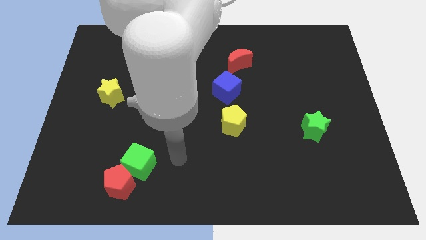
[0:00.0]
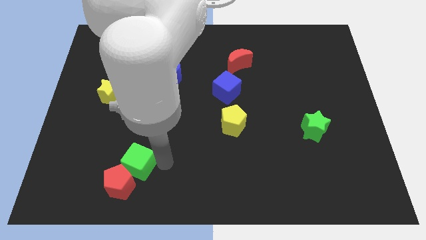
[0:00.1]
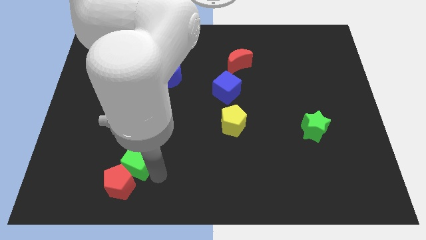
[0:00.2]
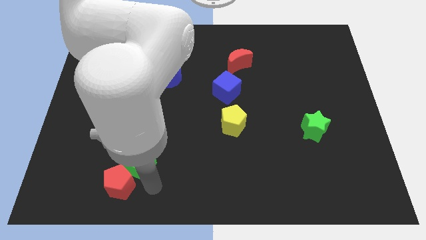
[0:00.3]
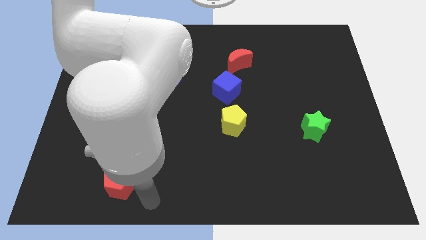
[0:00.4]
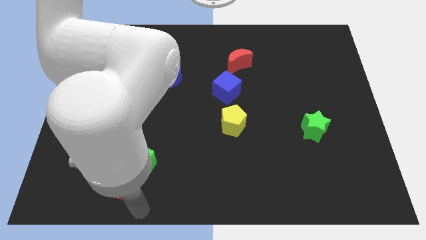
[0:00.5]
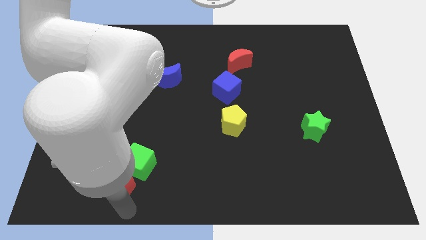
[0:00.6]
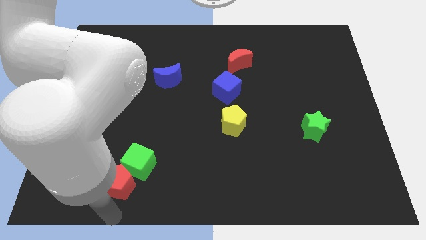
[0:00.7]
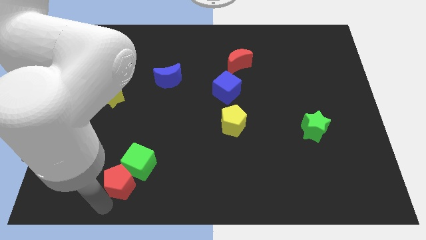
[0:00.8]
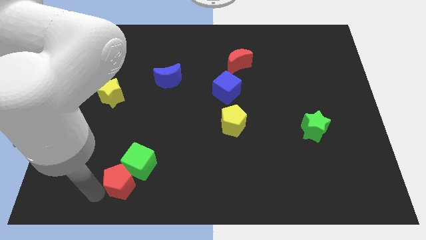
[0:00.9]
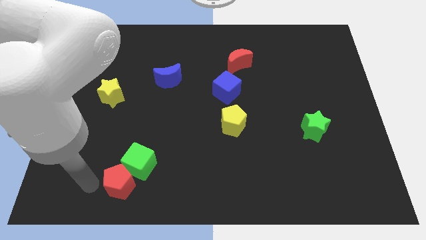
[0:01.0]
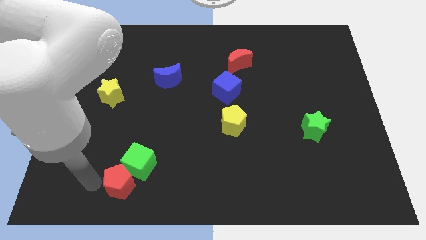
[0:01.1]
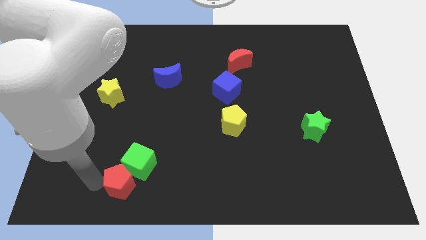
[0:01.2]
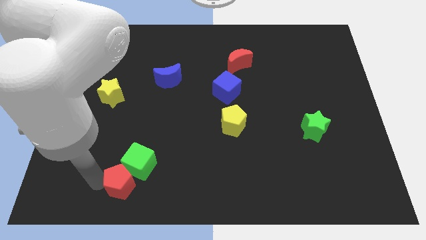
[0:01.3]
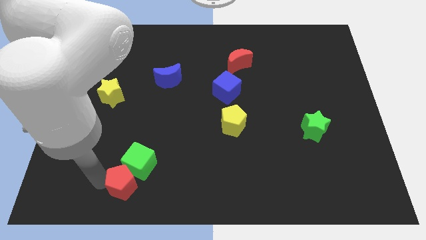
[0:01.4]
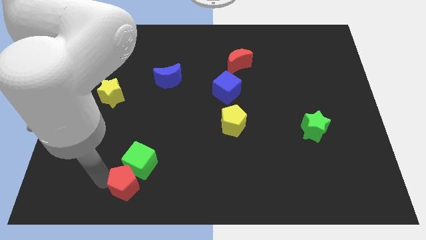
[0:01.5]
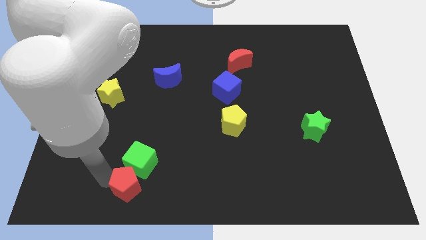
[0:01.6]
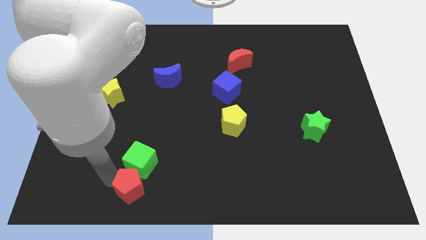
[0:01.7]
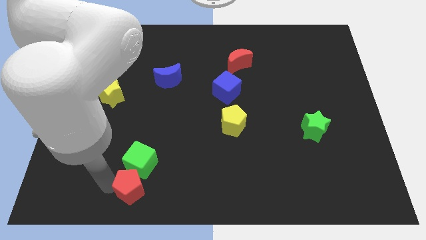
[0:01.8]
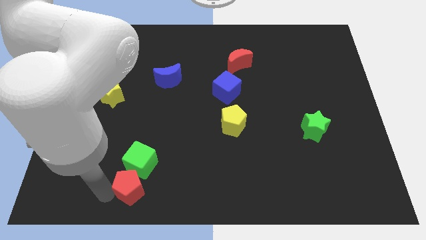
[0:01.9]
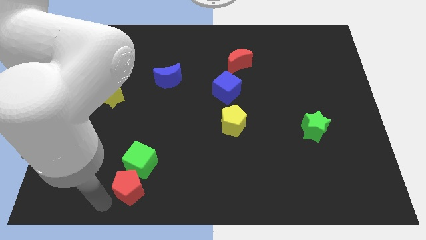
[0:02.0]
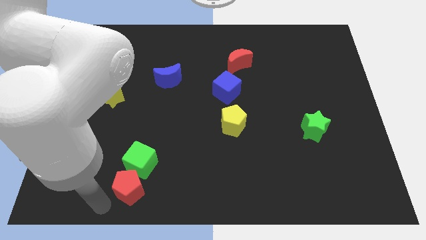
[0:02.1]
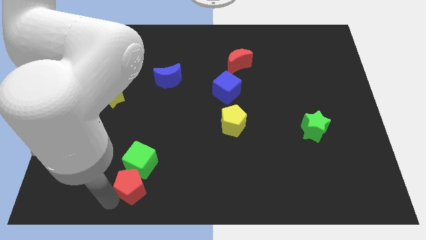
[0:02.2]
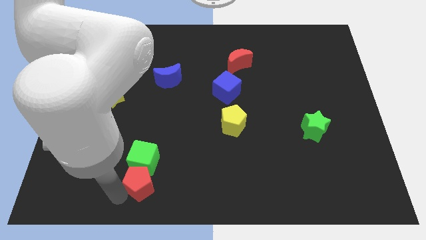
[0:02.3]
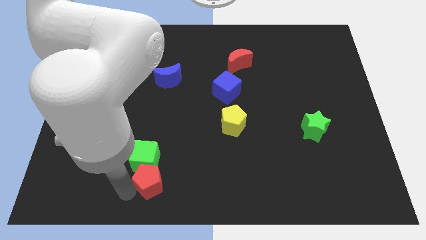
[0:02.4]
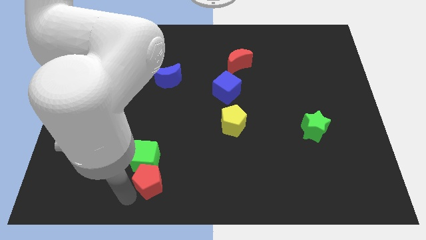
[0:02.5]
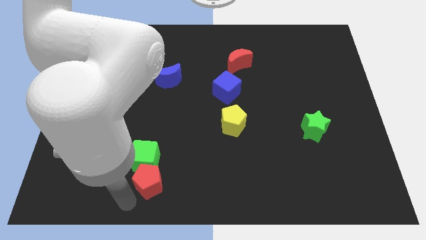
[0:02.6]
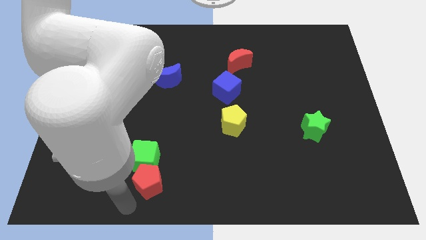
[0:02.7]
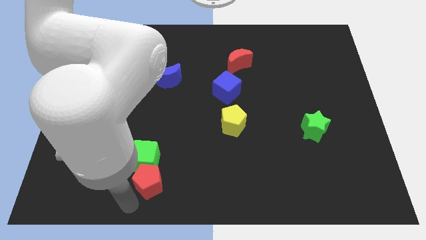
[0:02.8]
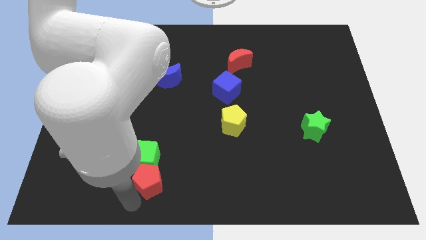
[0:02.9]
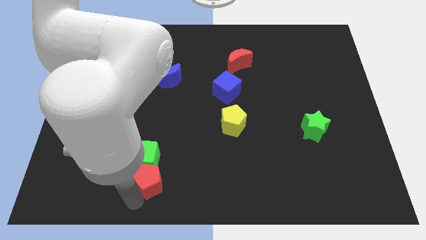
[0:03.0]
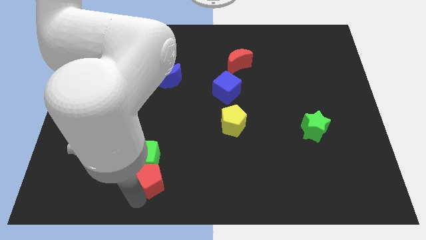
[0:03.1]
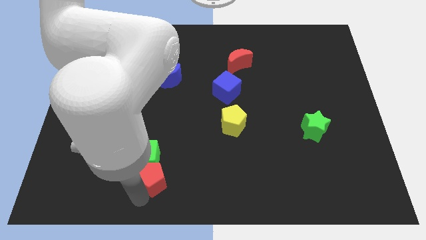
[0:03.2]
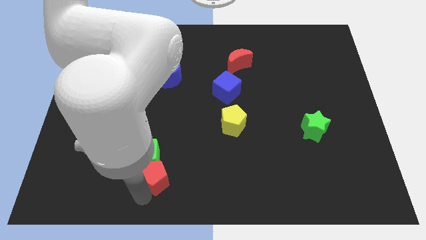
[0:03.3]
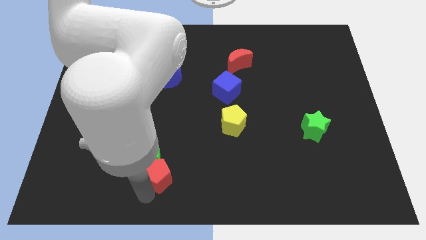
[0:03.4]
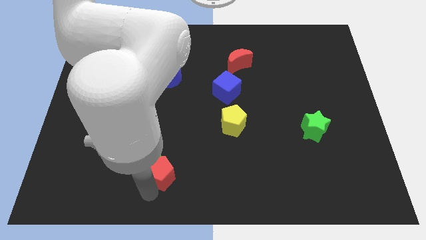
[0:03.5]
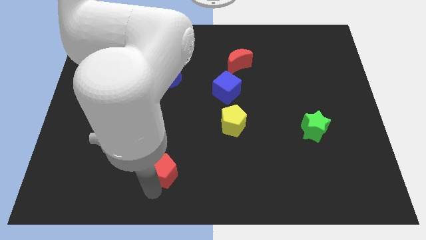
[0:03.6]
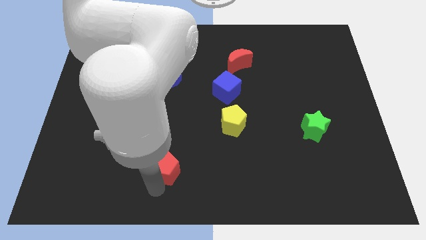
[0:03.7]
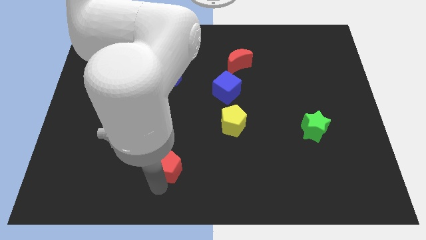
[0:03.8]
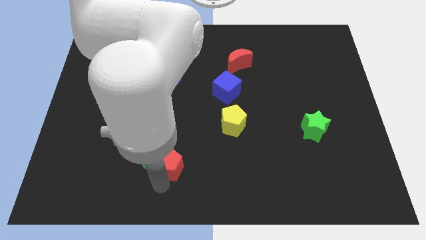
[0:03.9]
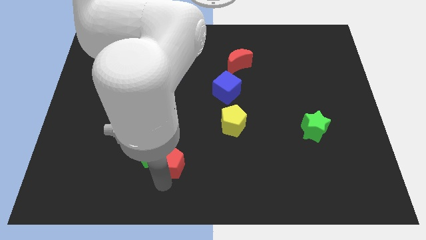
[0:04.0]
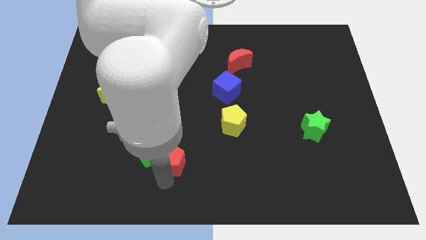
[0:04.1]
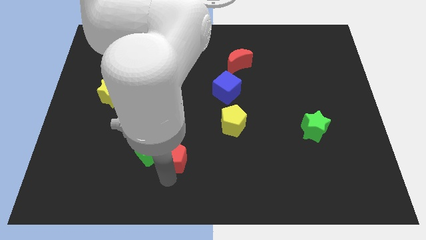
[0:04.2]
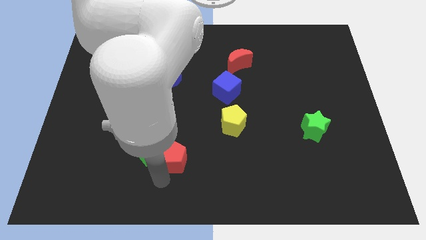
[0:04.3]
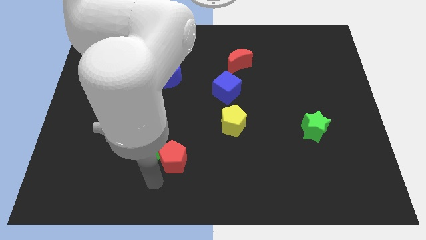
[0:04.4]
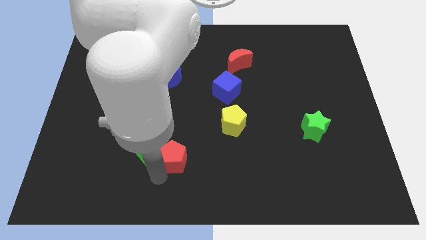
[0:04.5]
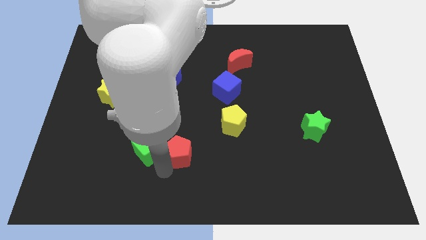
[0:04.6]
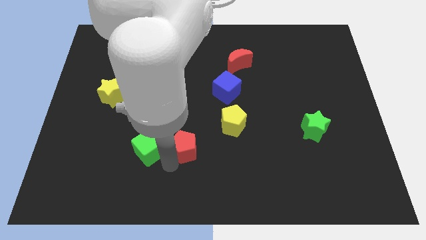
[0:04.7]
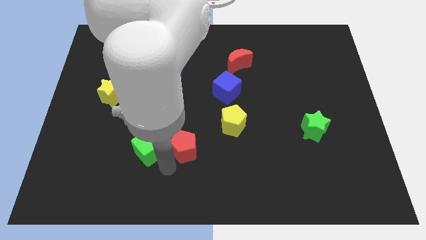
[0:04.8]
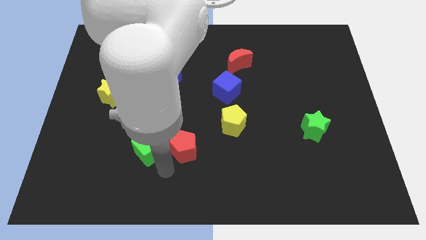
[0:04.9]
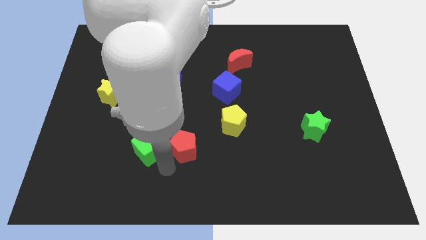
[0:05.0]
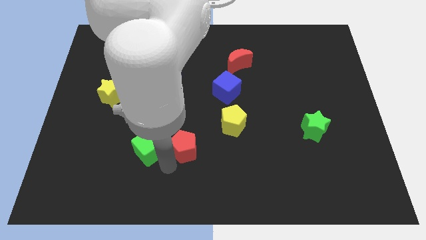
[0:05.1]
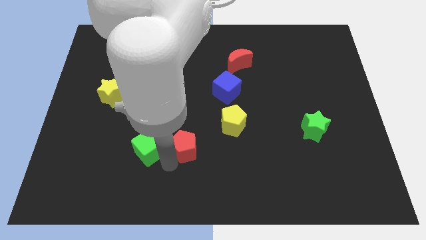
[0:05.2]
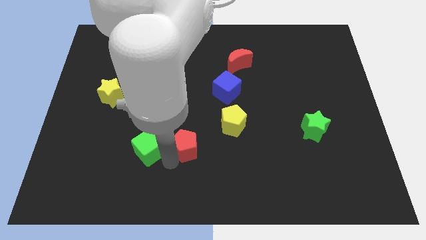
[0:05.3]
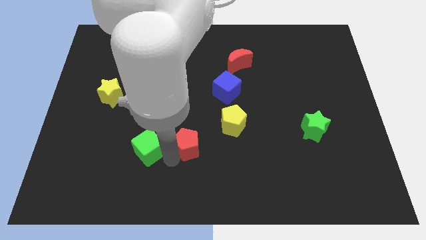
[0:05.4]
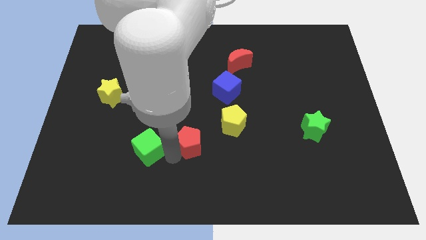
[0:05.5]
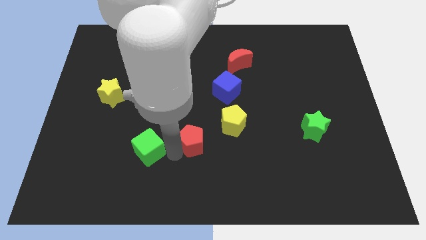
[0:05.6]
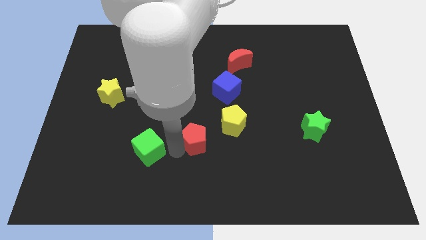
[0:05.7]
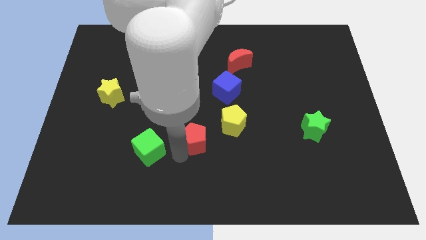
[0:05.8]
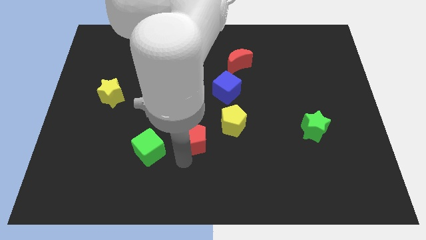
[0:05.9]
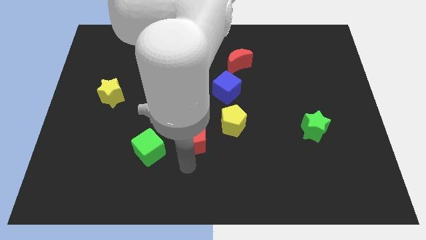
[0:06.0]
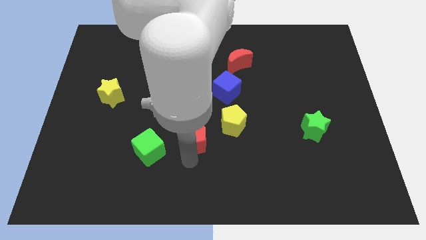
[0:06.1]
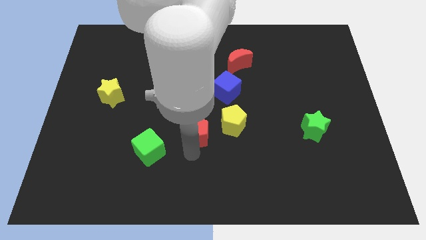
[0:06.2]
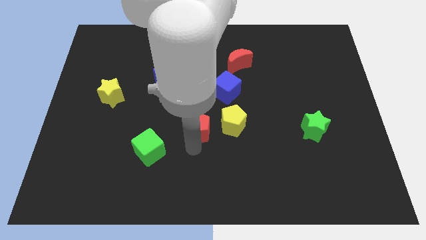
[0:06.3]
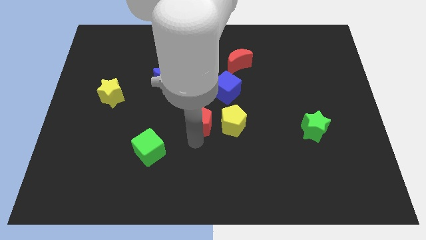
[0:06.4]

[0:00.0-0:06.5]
push the red pentagon to the bottom left side of the blue cube

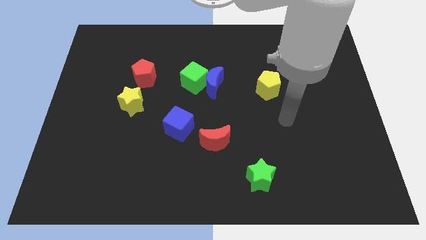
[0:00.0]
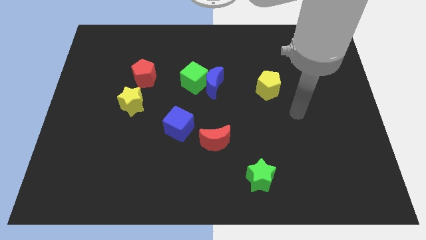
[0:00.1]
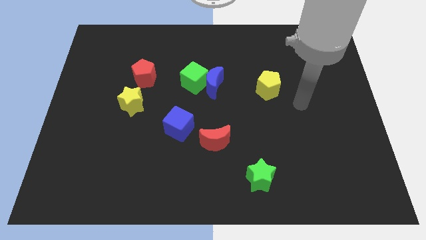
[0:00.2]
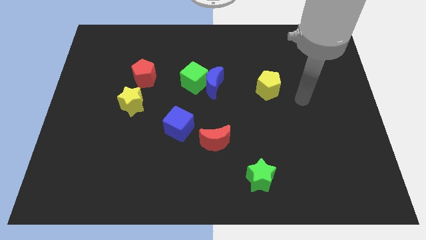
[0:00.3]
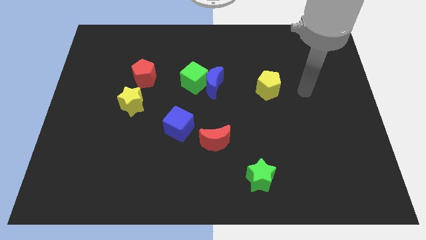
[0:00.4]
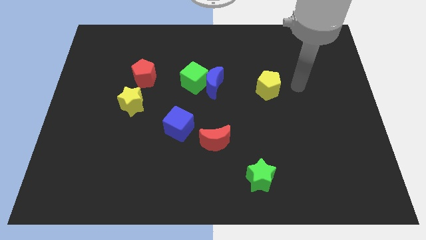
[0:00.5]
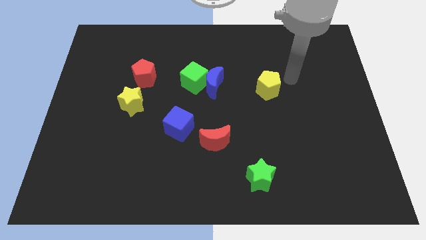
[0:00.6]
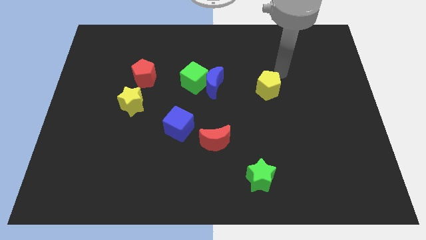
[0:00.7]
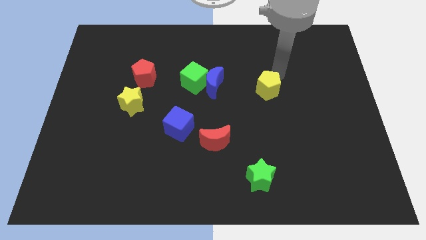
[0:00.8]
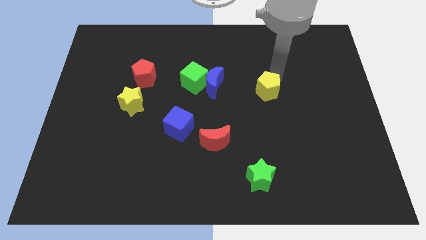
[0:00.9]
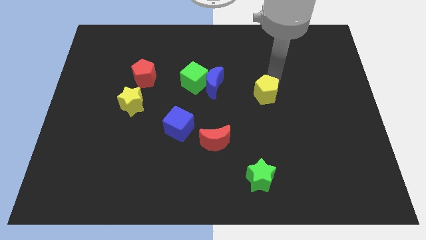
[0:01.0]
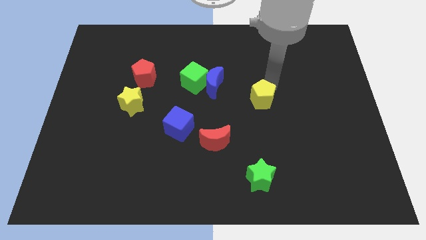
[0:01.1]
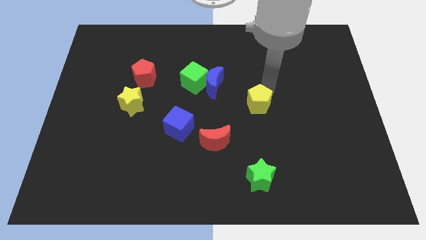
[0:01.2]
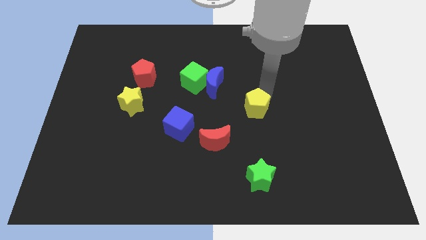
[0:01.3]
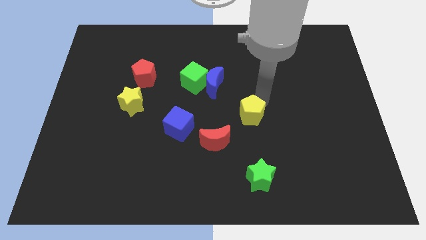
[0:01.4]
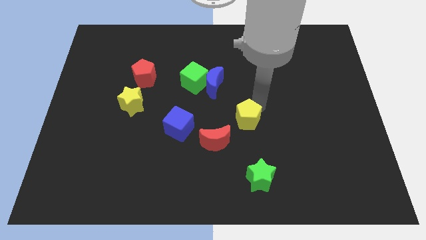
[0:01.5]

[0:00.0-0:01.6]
move the yellow pentagon to the right of the blue cube
